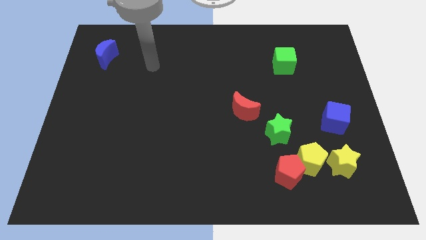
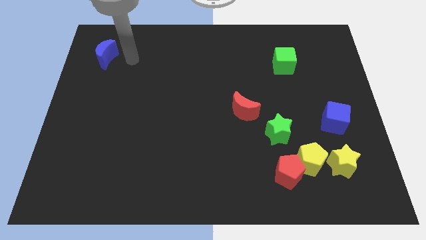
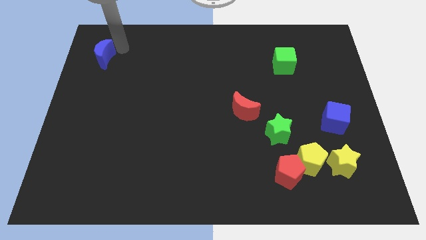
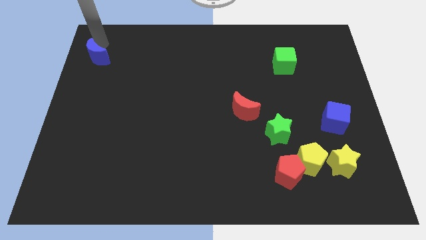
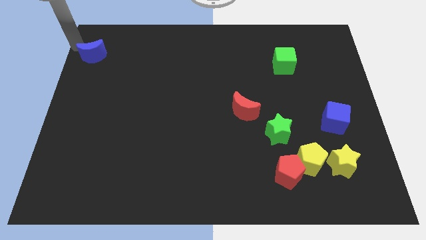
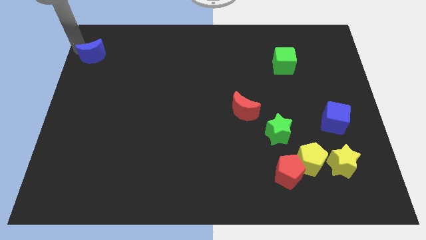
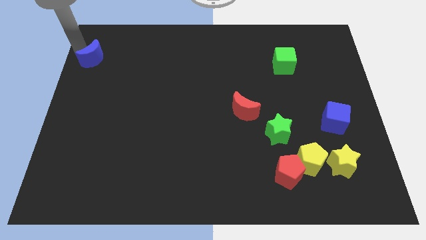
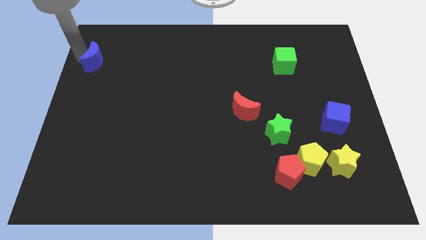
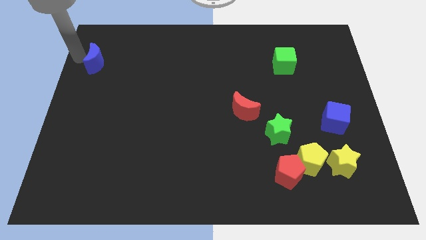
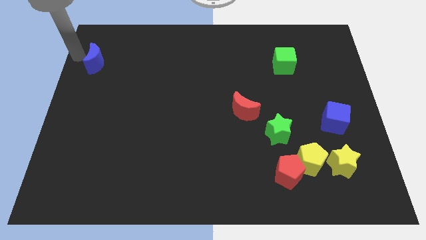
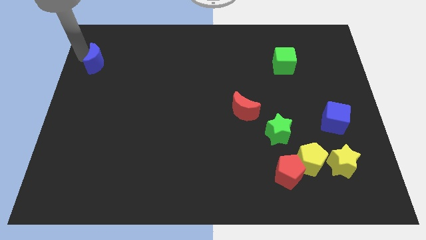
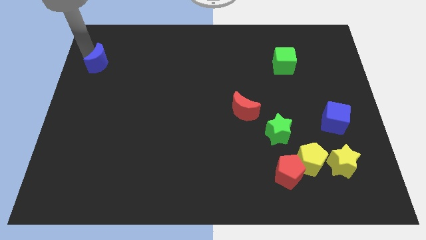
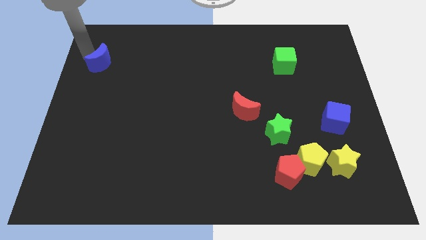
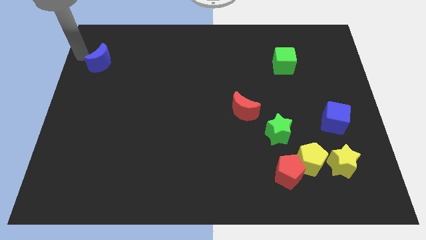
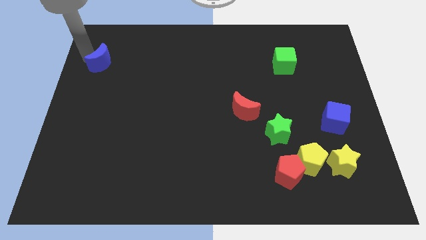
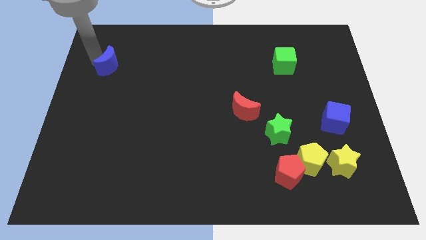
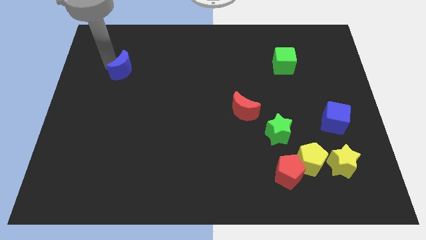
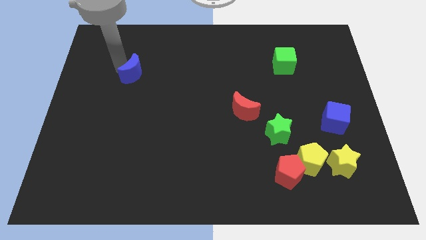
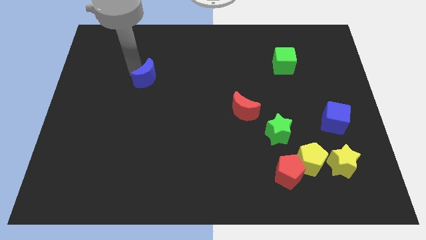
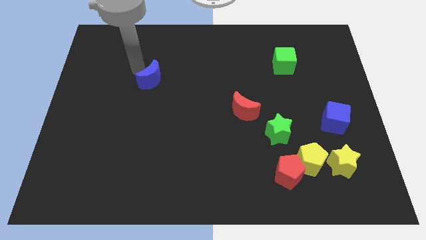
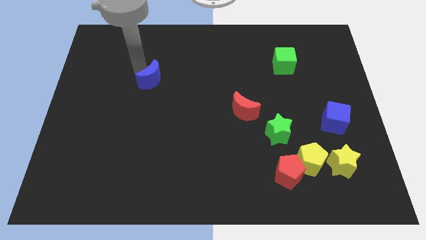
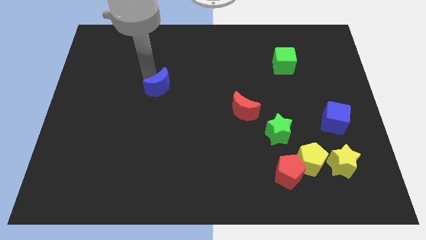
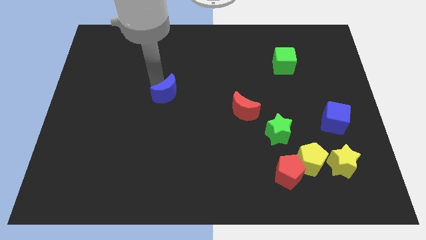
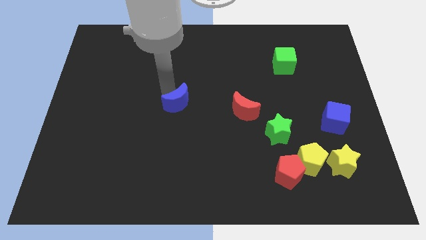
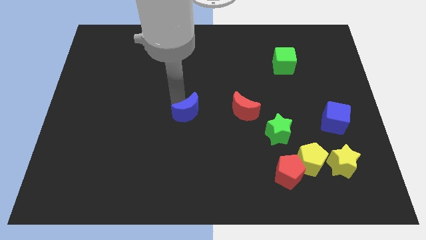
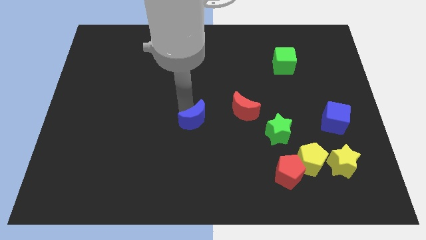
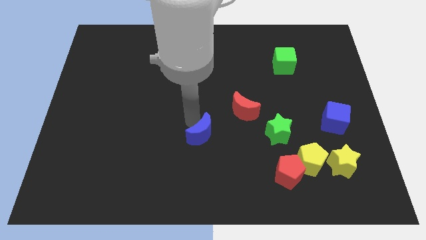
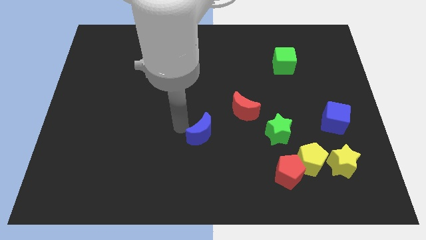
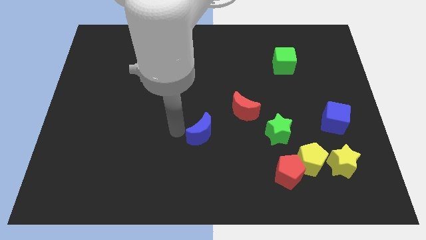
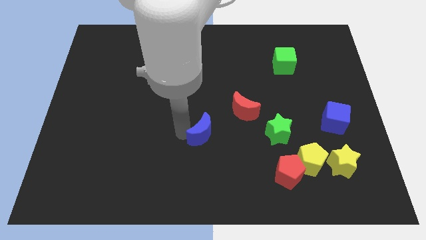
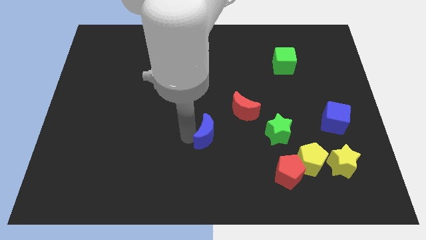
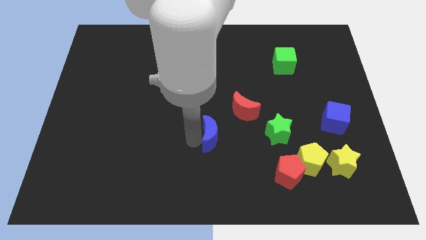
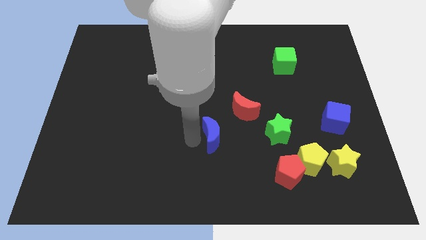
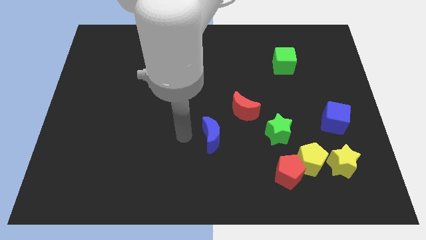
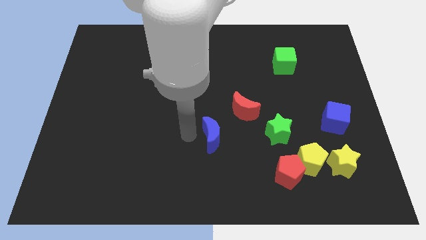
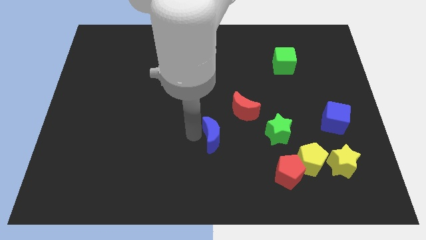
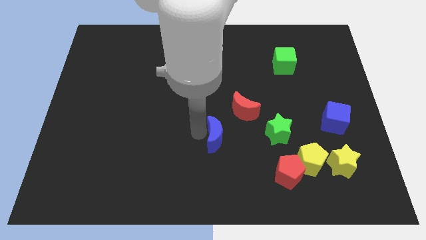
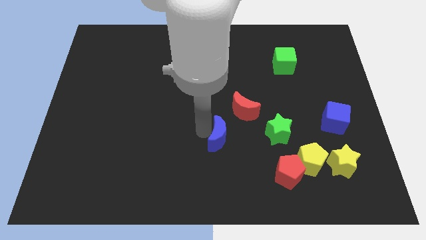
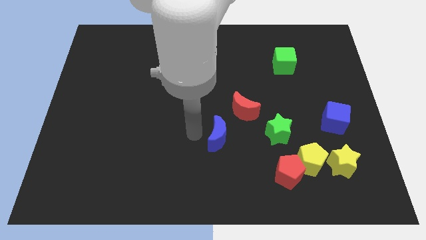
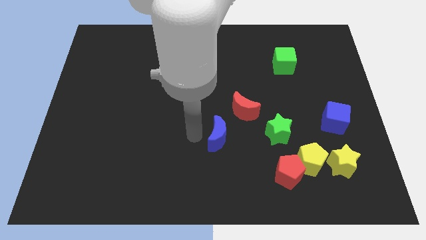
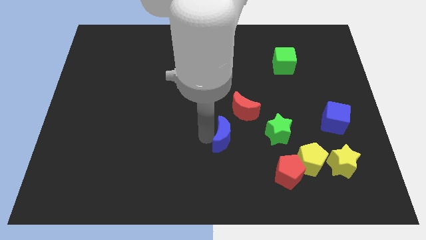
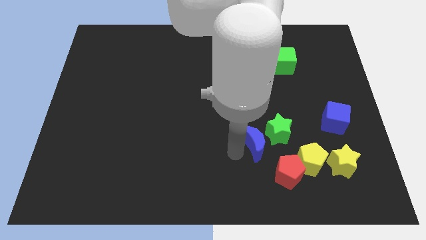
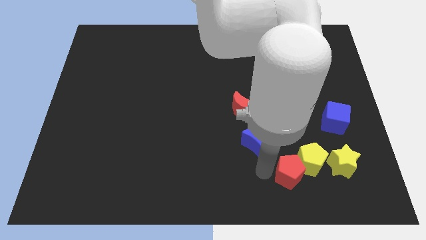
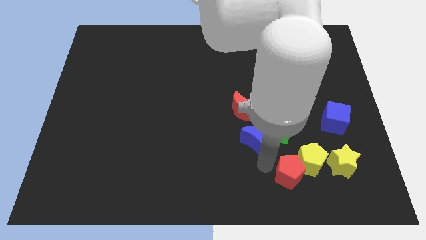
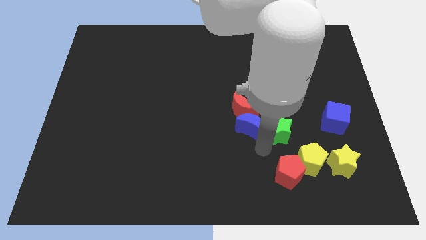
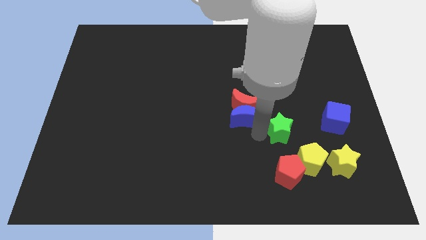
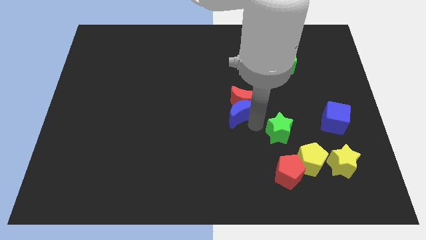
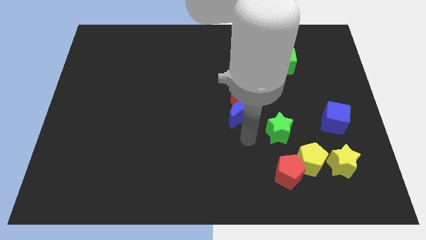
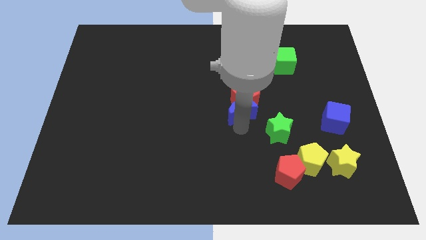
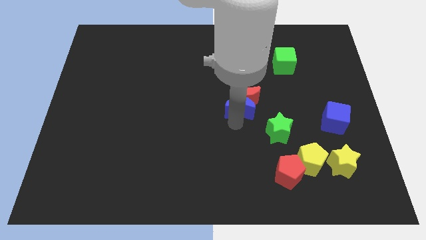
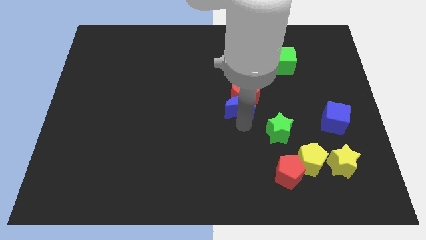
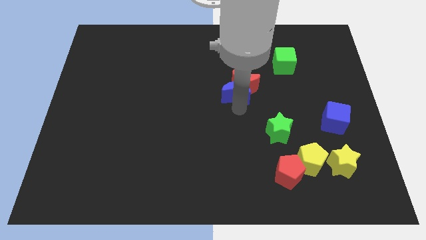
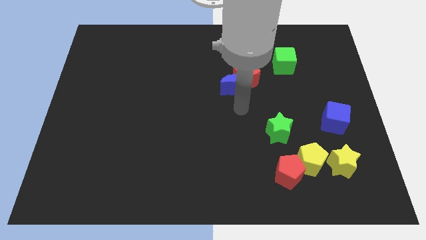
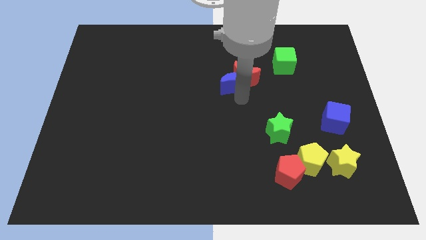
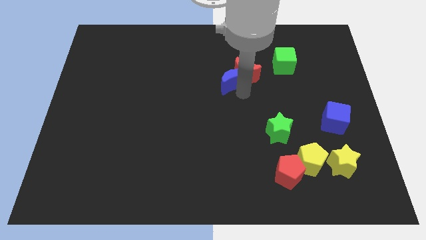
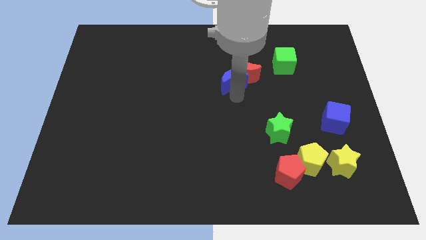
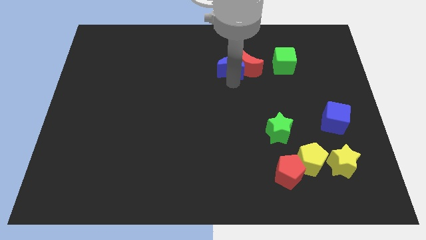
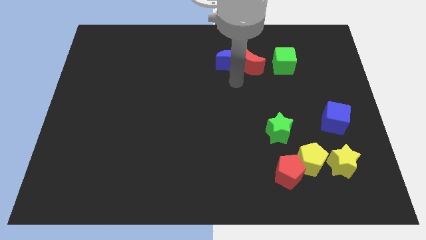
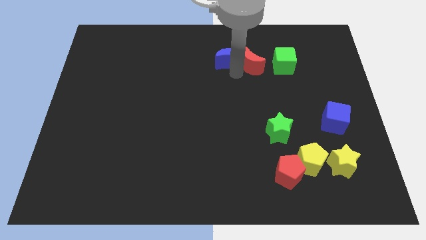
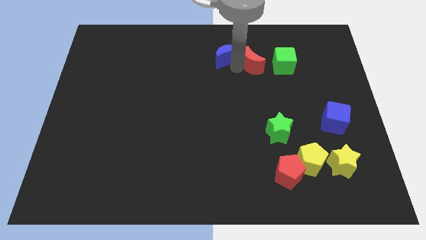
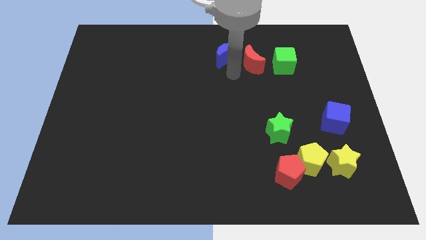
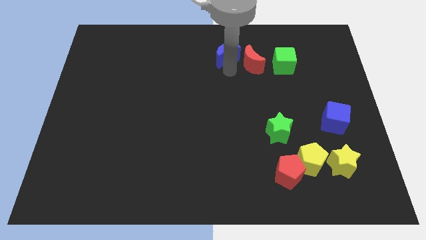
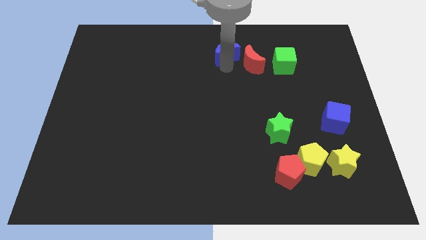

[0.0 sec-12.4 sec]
move the blue moon to the top

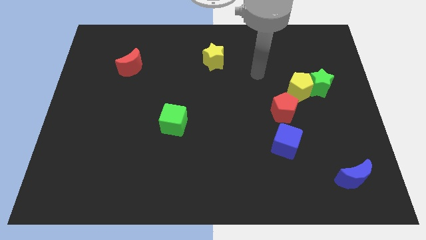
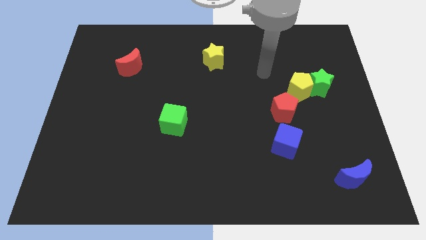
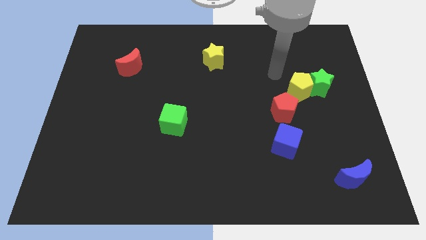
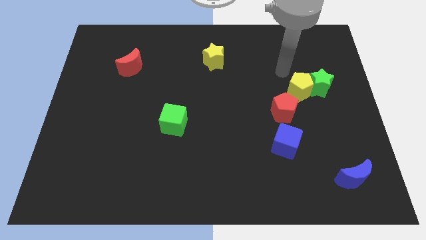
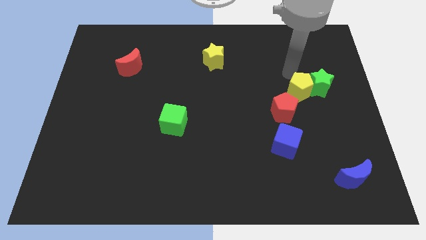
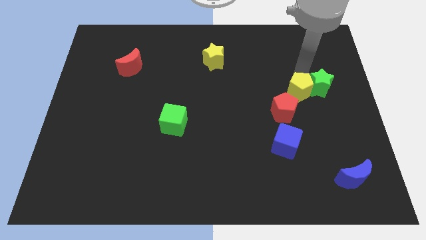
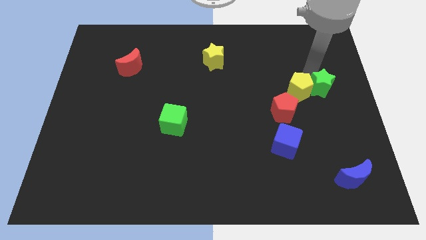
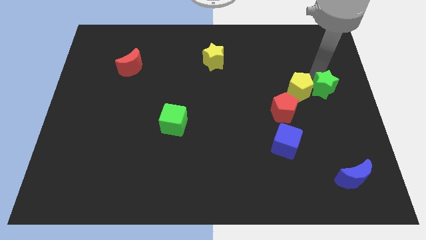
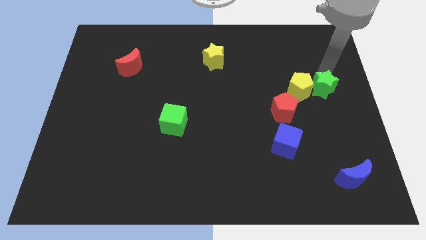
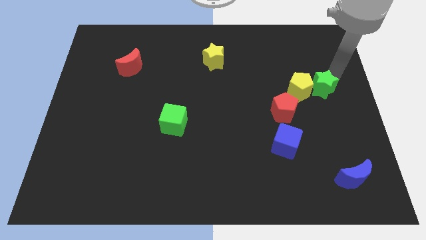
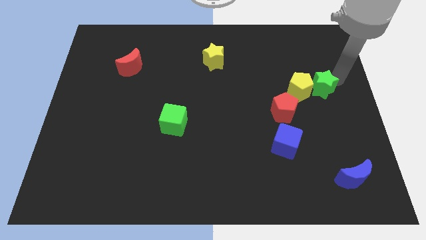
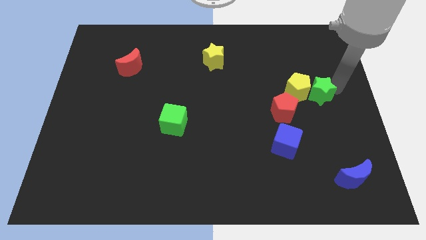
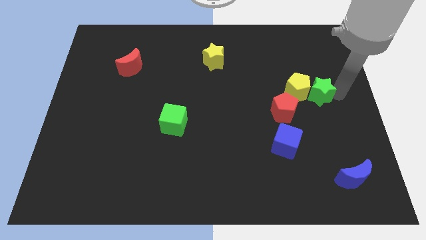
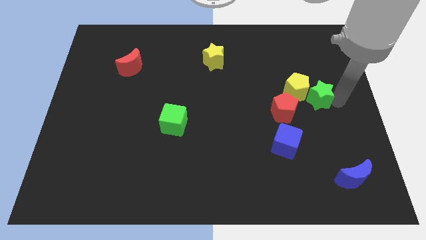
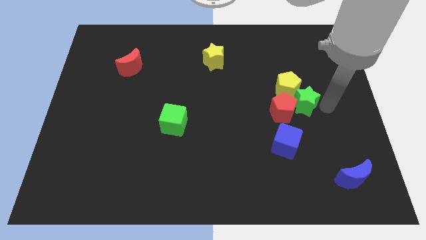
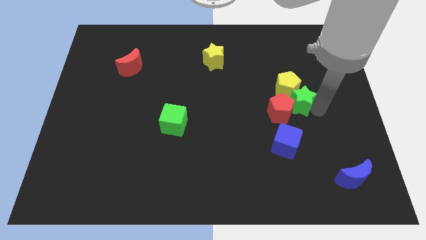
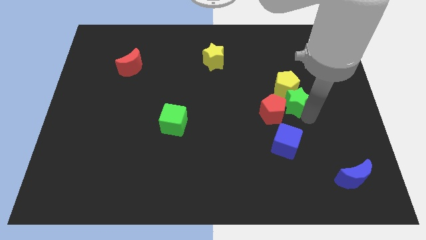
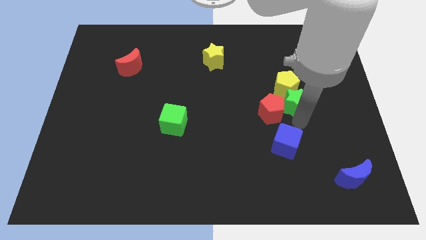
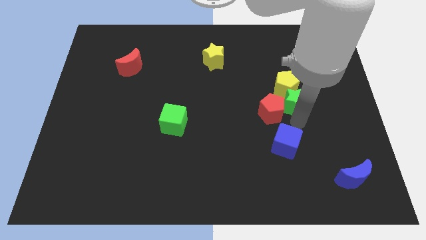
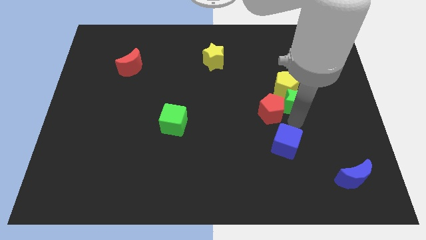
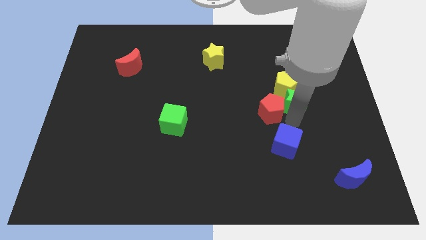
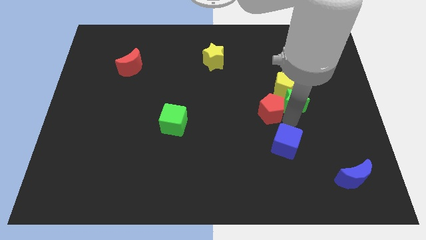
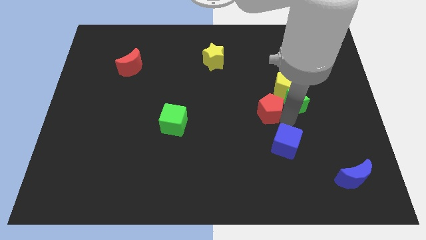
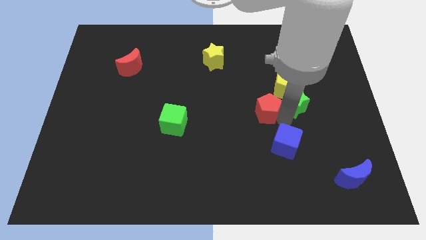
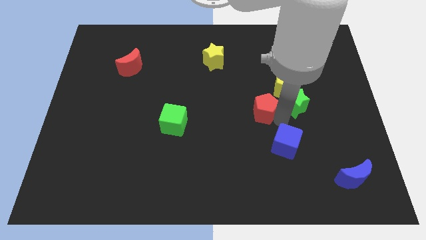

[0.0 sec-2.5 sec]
put the red pentagon to the middle
